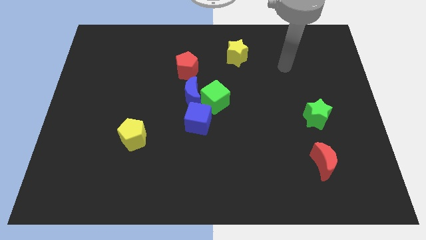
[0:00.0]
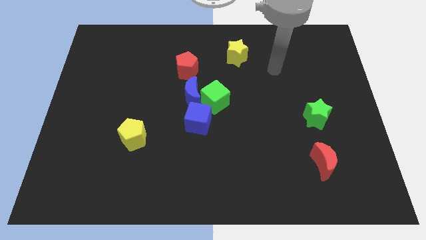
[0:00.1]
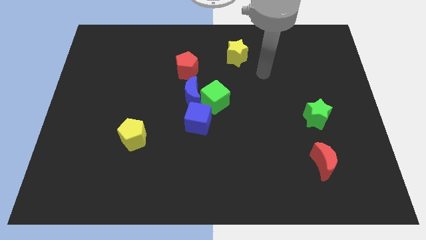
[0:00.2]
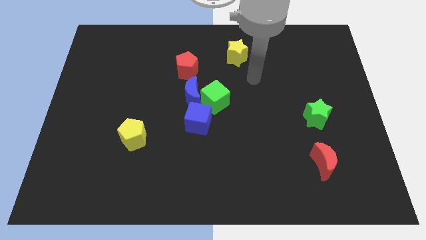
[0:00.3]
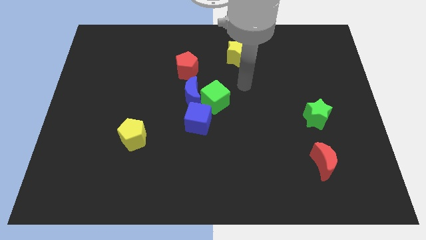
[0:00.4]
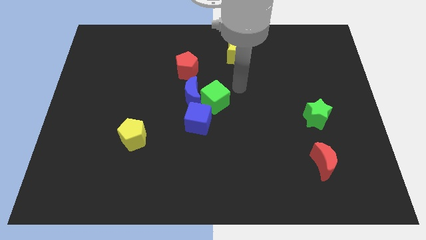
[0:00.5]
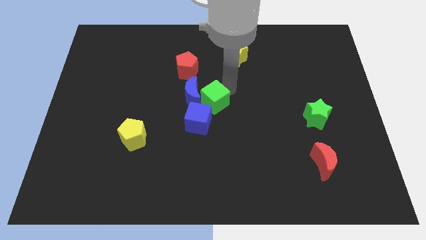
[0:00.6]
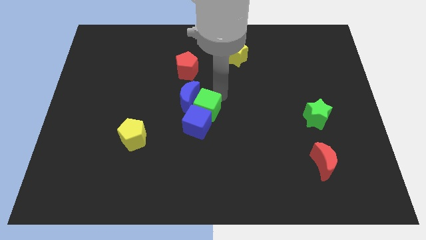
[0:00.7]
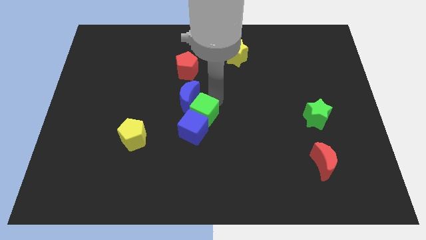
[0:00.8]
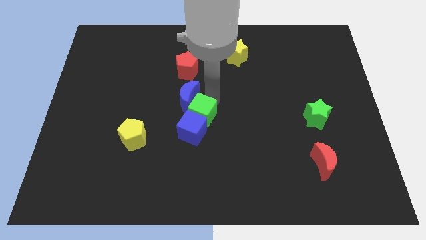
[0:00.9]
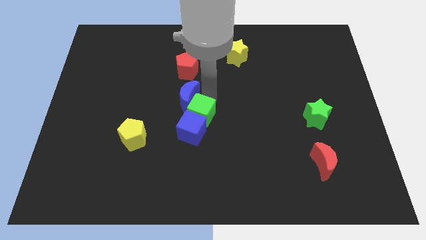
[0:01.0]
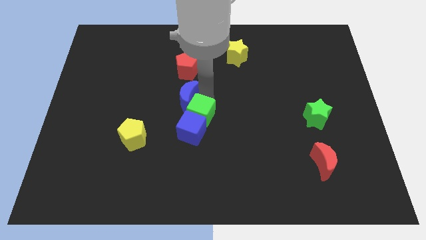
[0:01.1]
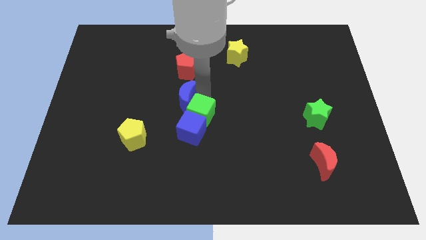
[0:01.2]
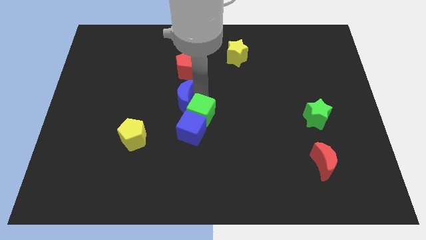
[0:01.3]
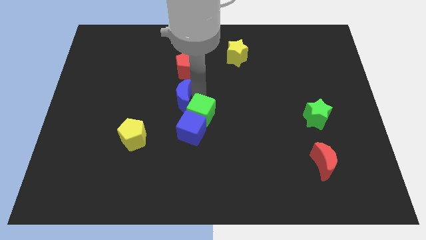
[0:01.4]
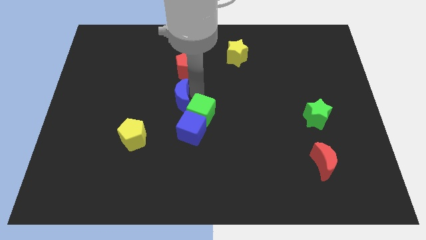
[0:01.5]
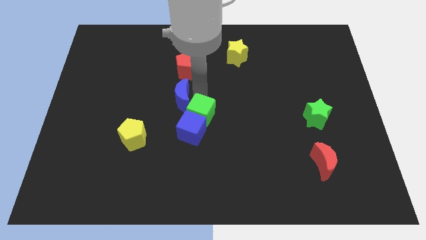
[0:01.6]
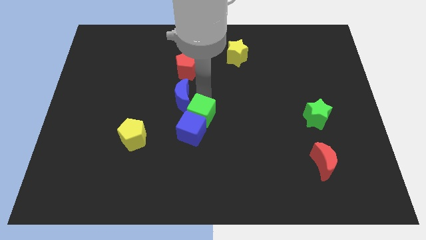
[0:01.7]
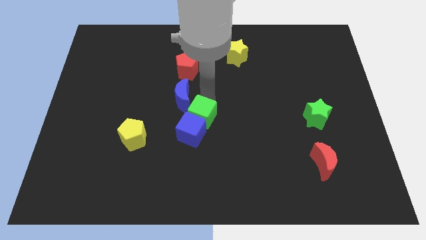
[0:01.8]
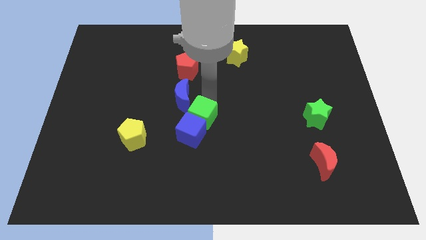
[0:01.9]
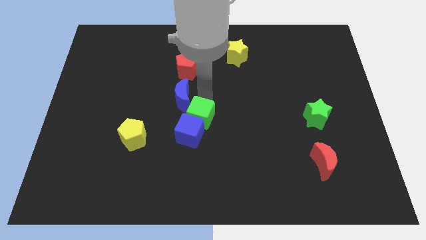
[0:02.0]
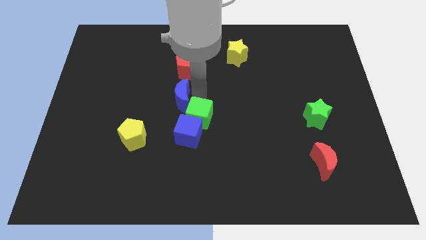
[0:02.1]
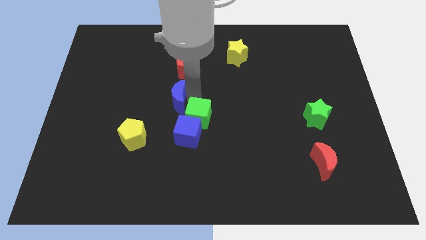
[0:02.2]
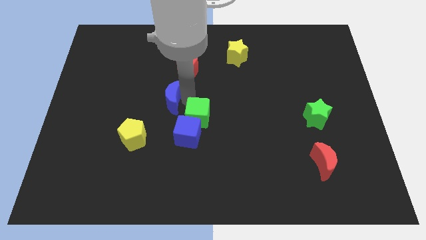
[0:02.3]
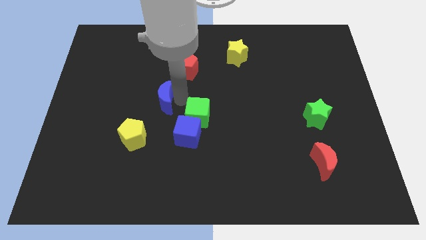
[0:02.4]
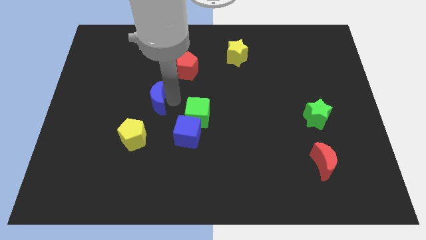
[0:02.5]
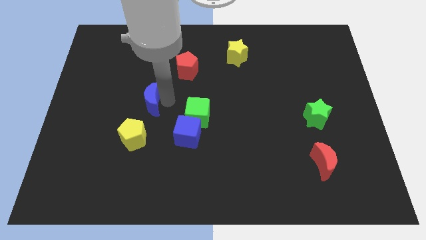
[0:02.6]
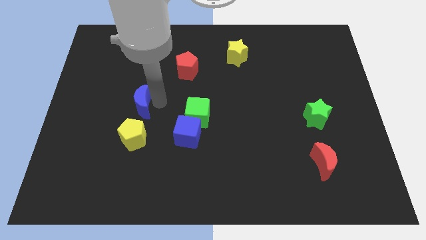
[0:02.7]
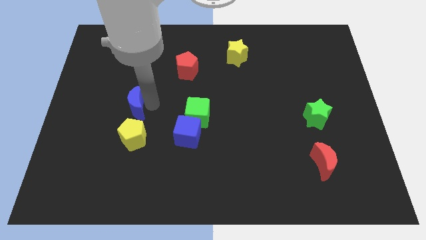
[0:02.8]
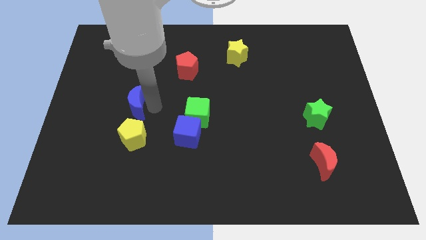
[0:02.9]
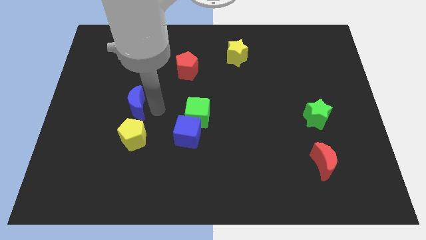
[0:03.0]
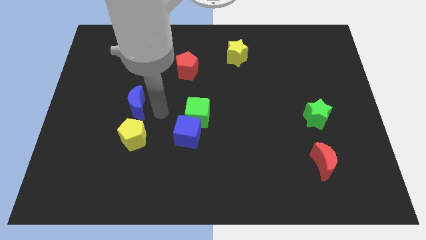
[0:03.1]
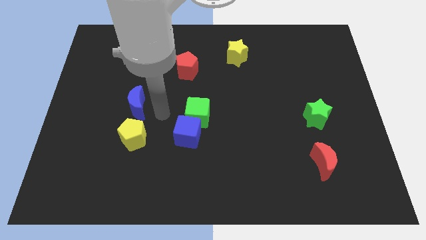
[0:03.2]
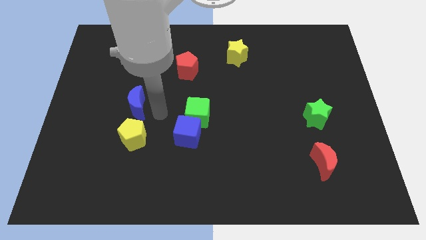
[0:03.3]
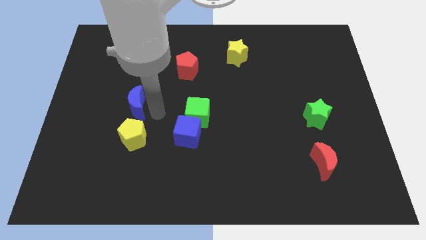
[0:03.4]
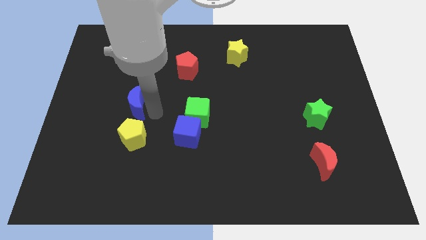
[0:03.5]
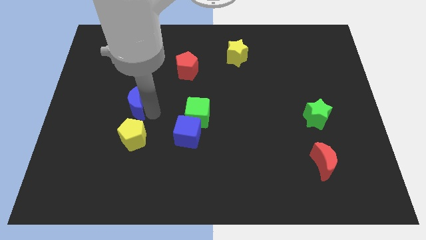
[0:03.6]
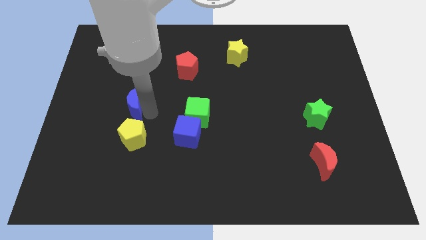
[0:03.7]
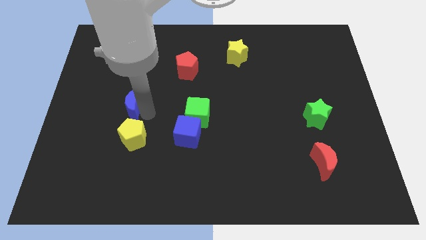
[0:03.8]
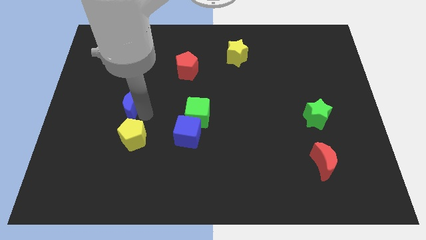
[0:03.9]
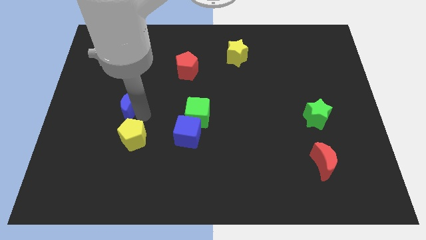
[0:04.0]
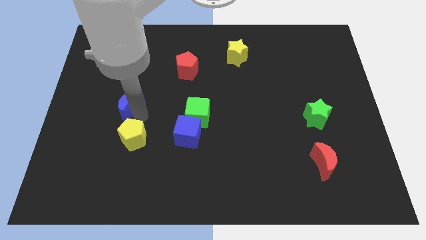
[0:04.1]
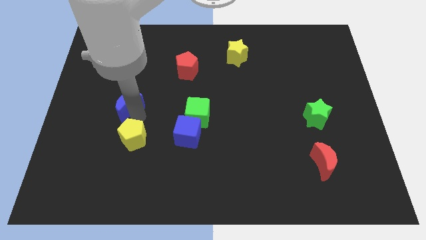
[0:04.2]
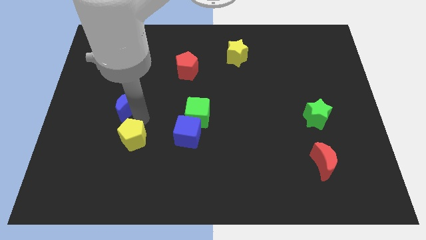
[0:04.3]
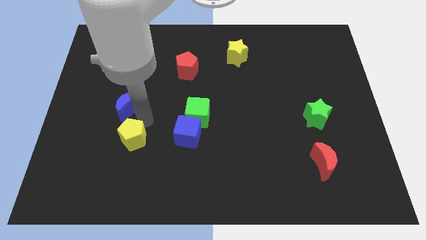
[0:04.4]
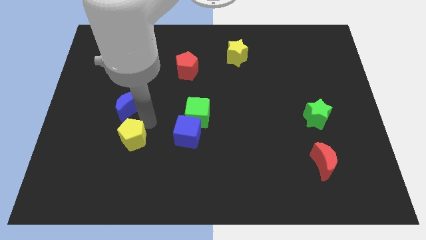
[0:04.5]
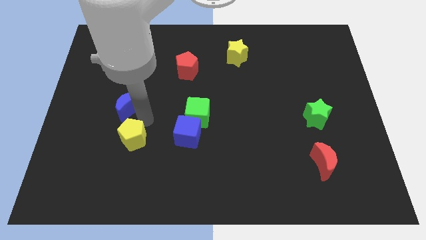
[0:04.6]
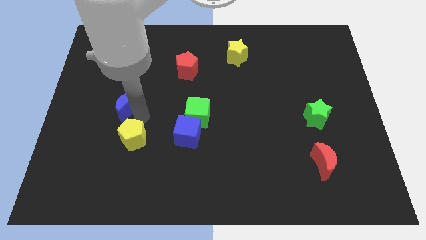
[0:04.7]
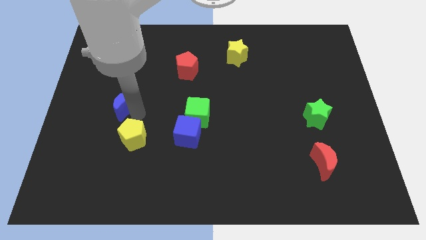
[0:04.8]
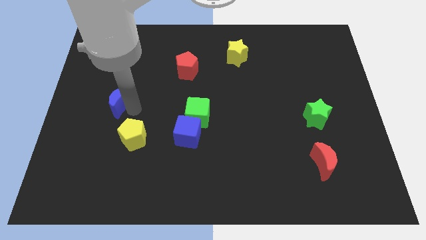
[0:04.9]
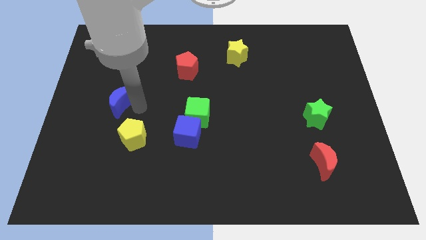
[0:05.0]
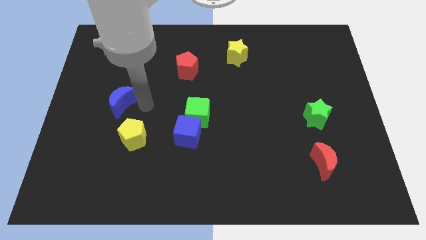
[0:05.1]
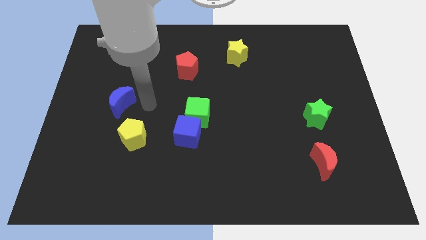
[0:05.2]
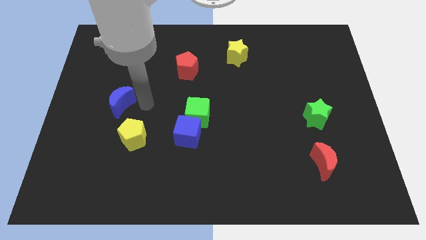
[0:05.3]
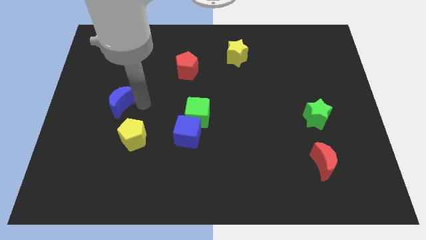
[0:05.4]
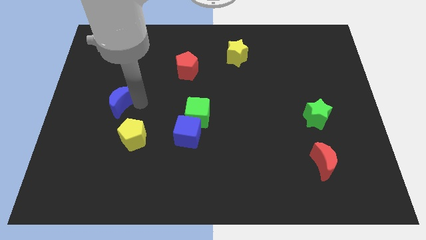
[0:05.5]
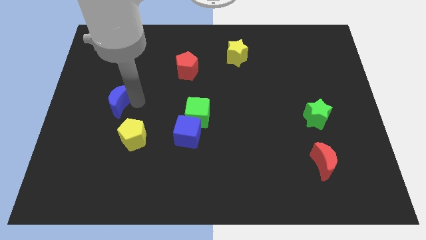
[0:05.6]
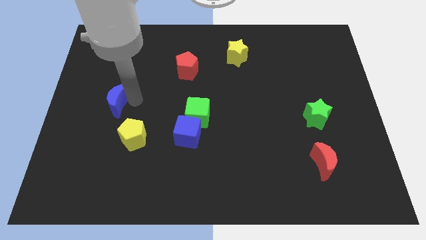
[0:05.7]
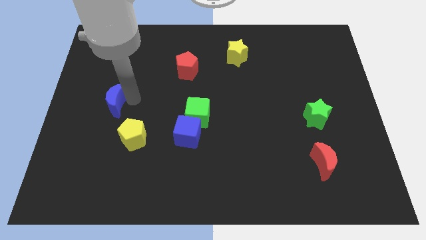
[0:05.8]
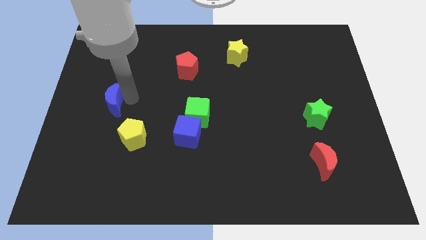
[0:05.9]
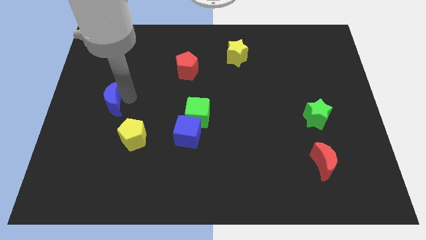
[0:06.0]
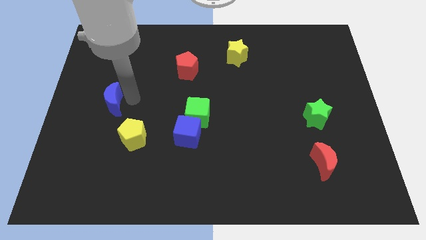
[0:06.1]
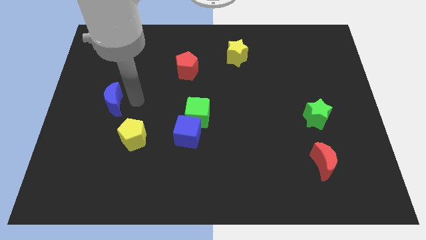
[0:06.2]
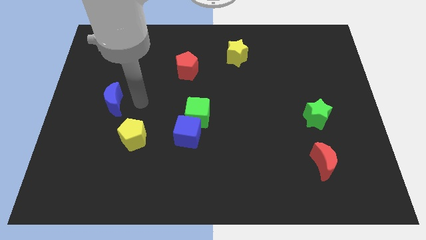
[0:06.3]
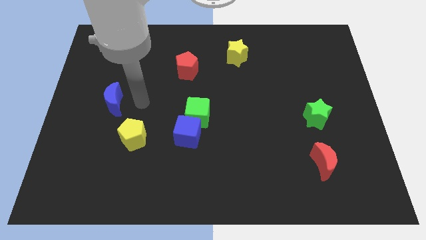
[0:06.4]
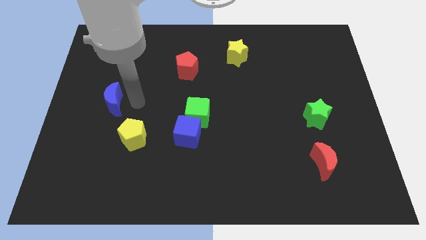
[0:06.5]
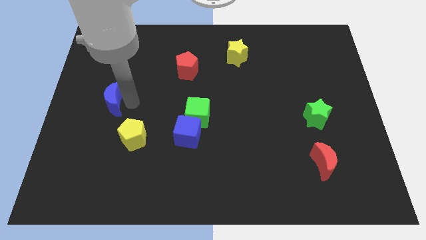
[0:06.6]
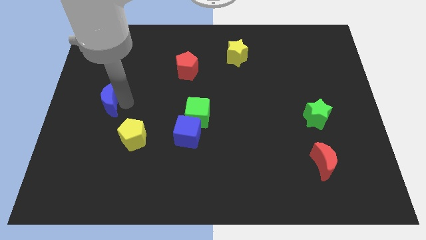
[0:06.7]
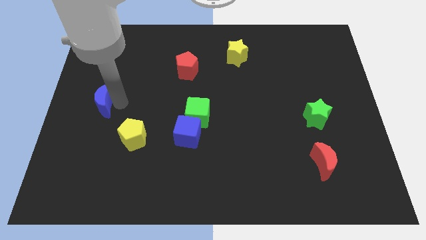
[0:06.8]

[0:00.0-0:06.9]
put the blue moon to the left side of the board
